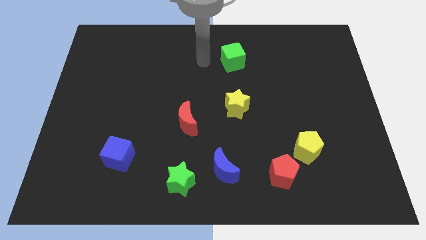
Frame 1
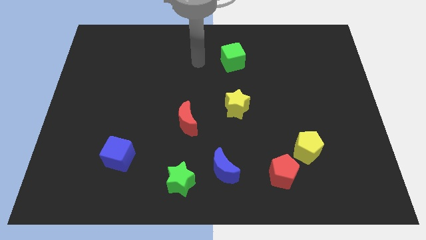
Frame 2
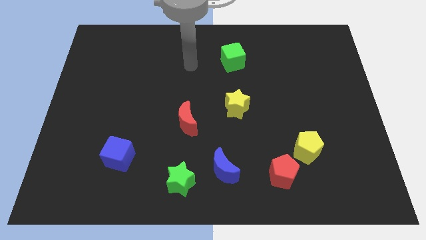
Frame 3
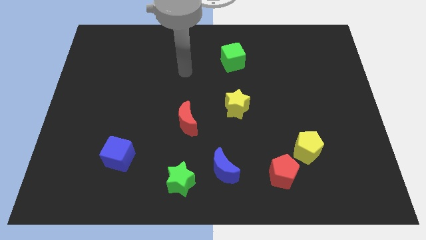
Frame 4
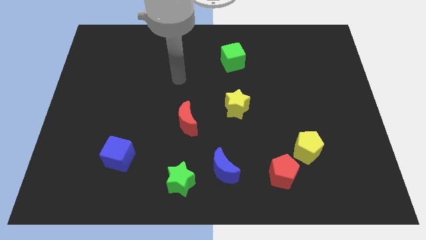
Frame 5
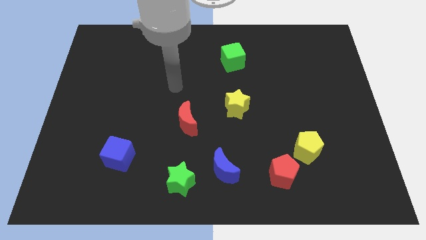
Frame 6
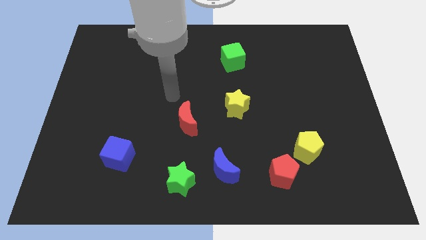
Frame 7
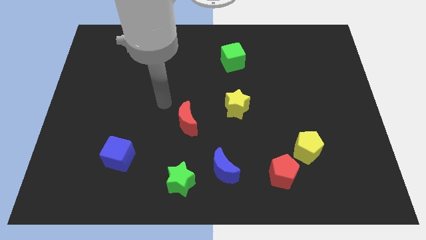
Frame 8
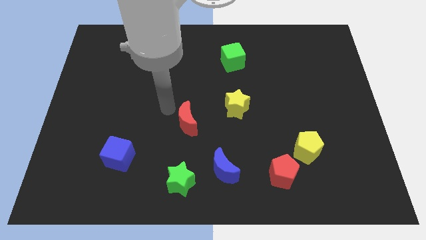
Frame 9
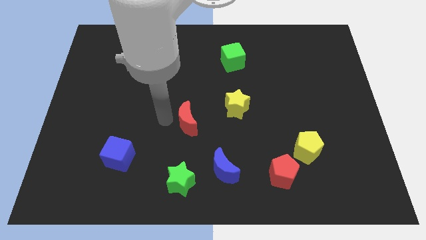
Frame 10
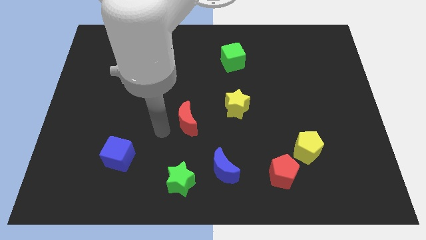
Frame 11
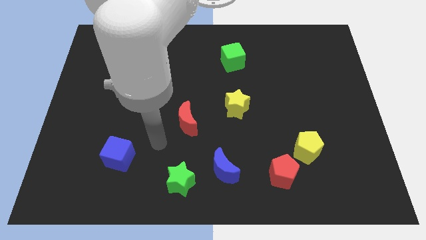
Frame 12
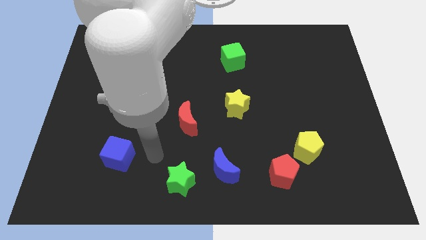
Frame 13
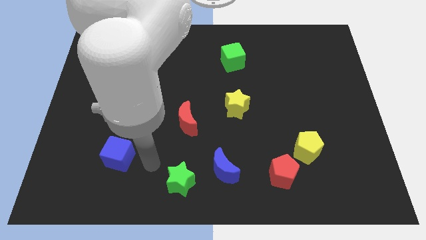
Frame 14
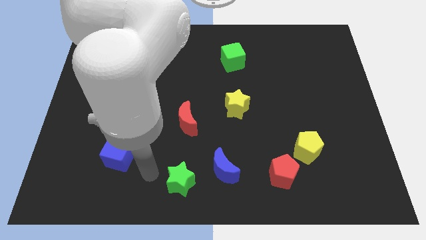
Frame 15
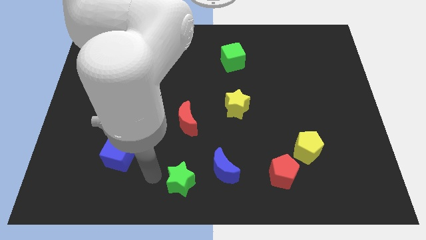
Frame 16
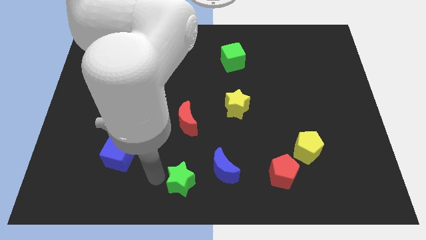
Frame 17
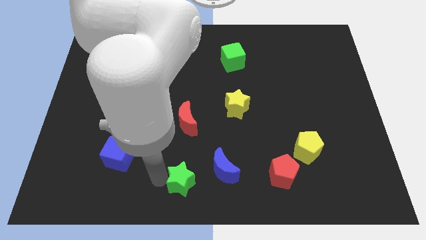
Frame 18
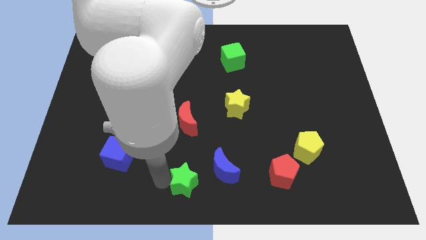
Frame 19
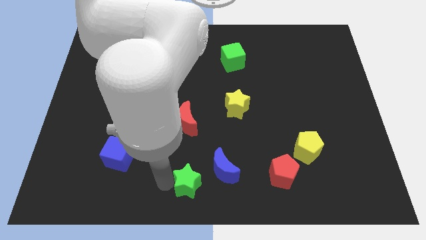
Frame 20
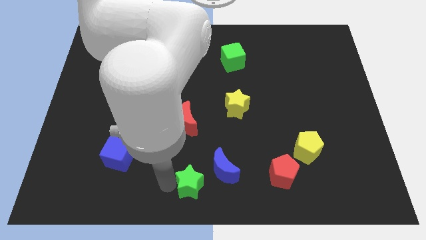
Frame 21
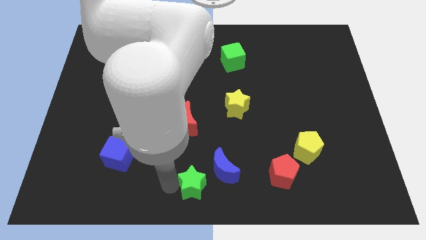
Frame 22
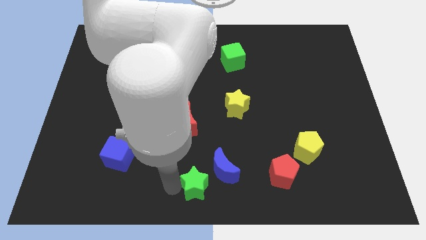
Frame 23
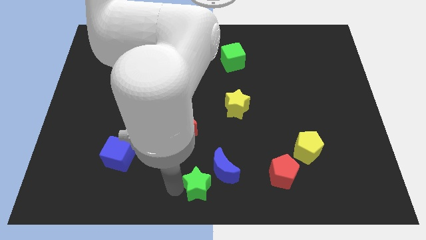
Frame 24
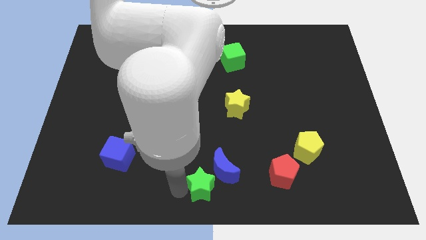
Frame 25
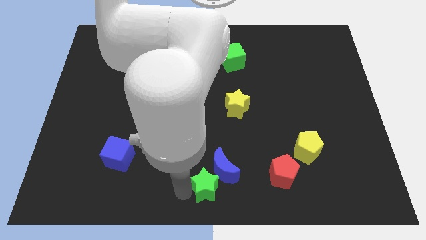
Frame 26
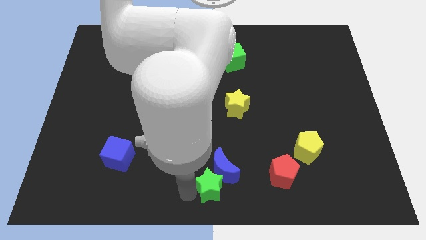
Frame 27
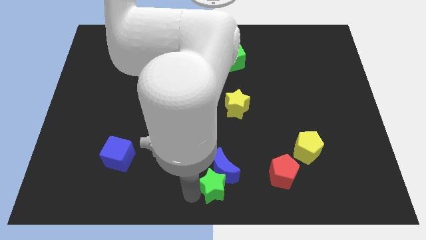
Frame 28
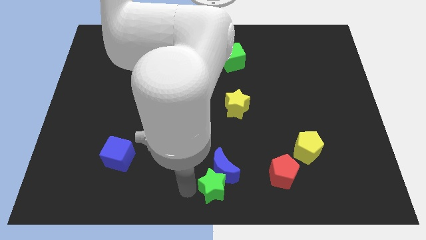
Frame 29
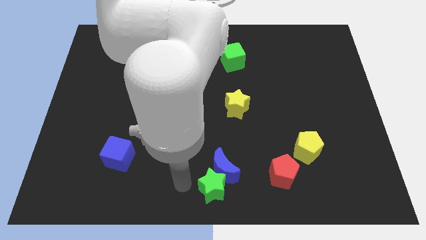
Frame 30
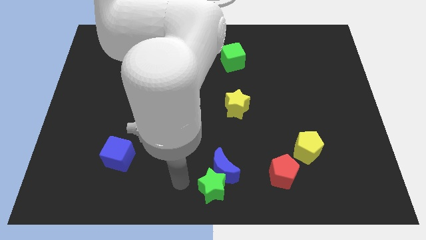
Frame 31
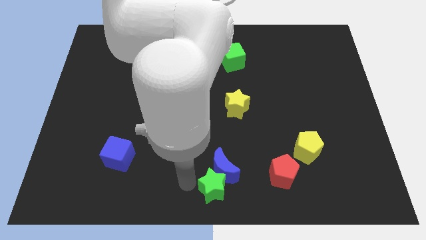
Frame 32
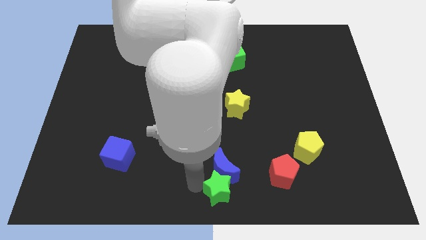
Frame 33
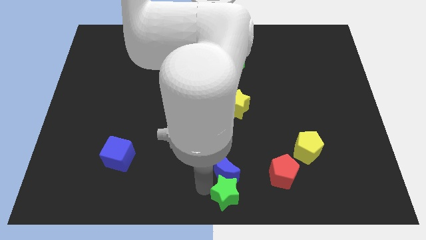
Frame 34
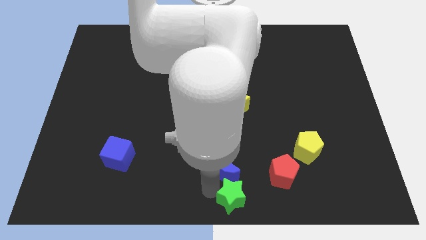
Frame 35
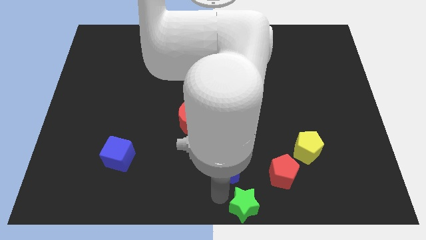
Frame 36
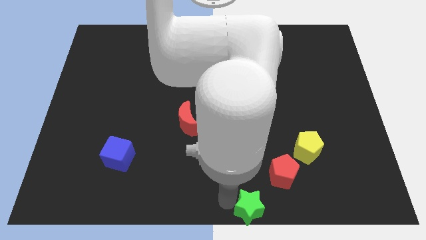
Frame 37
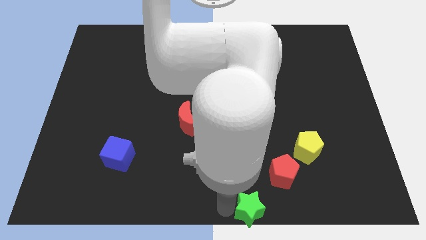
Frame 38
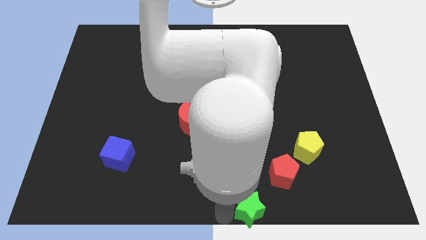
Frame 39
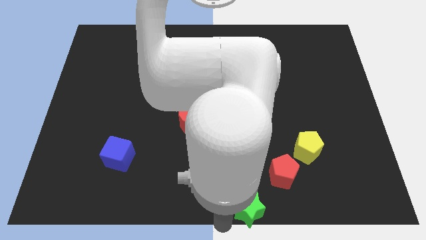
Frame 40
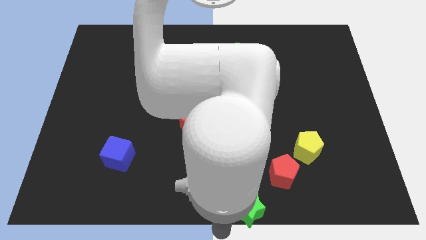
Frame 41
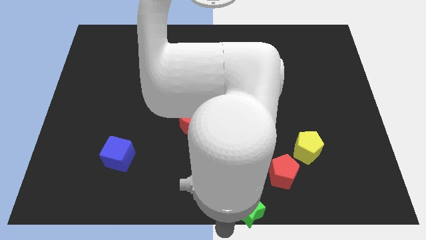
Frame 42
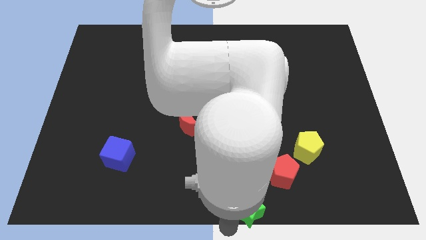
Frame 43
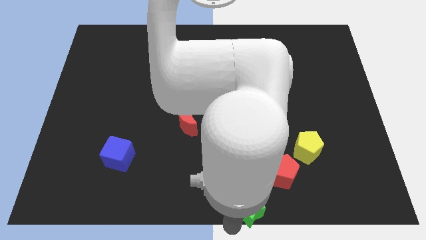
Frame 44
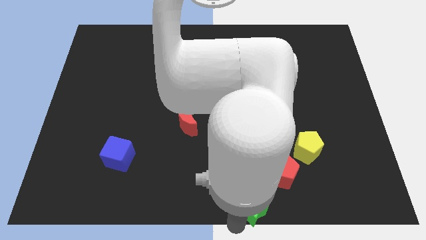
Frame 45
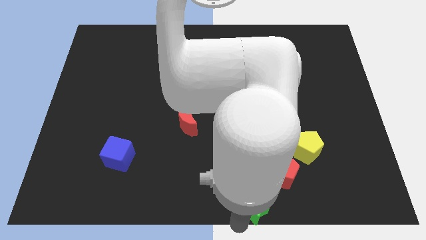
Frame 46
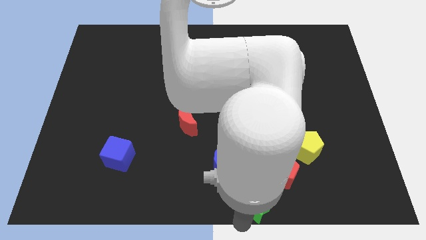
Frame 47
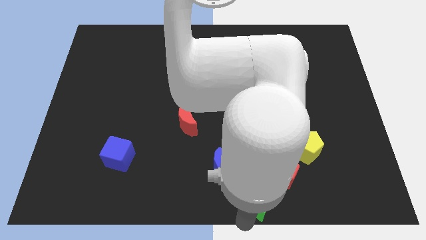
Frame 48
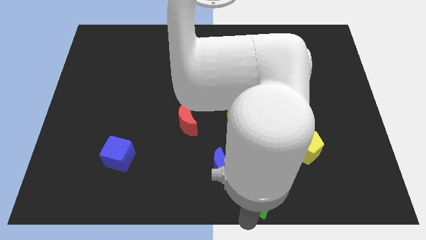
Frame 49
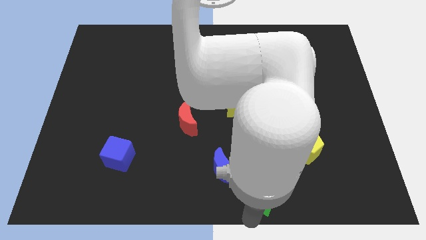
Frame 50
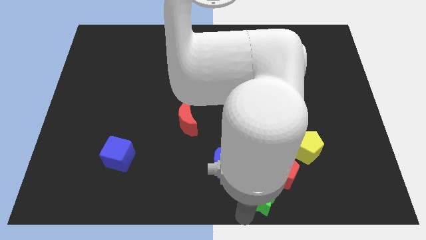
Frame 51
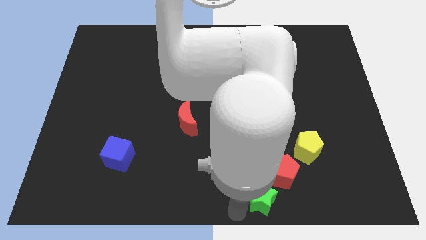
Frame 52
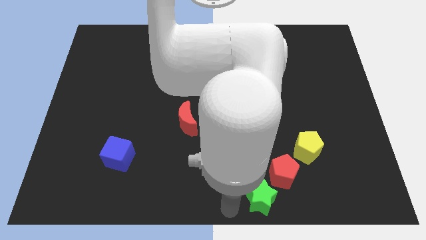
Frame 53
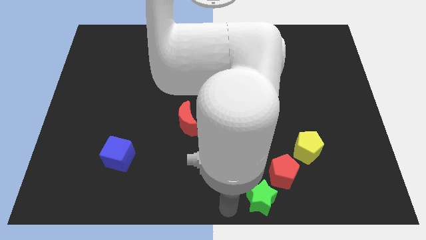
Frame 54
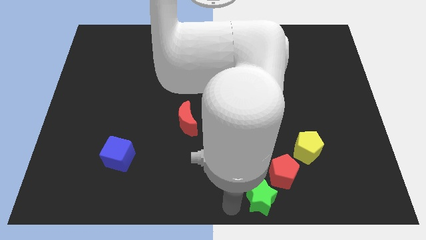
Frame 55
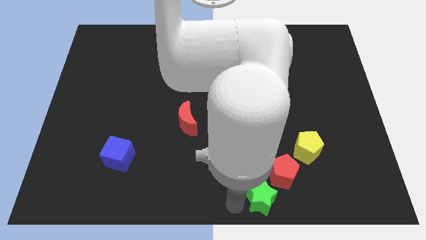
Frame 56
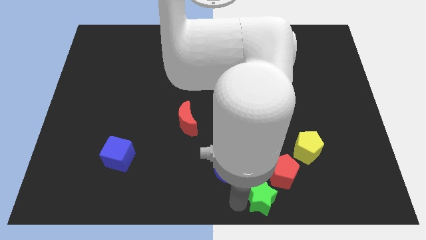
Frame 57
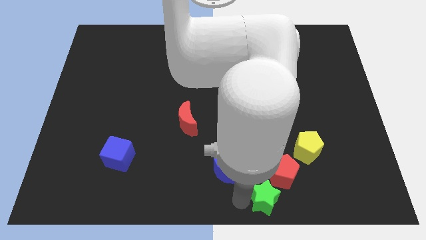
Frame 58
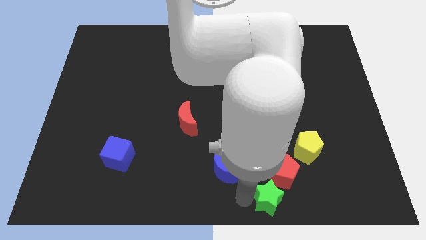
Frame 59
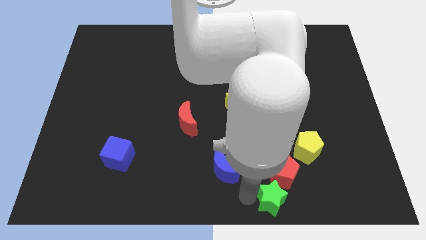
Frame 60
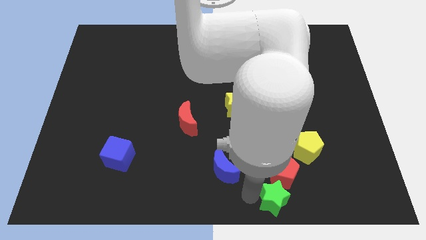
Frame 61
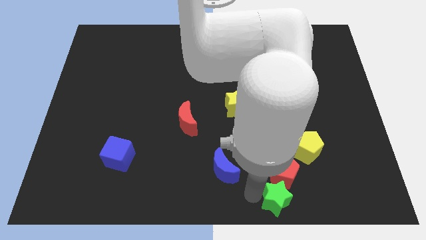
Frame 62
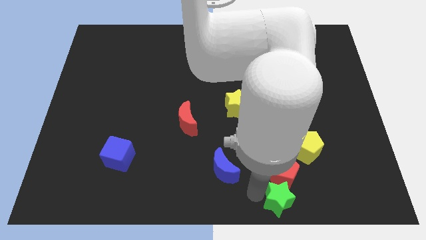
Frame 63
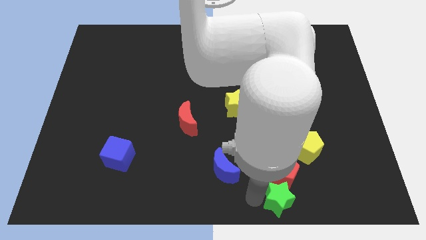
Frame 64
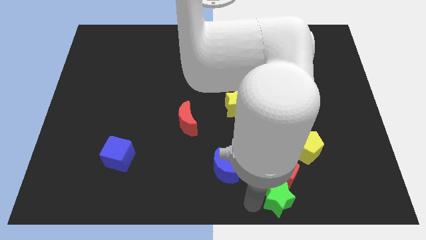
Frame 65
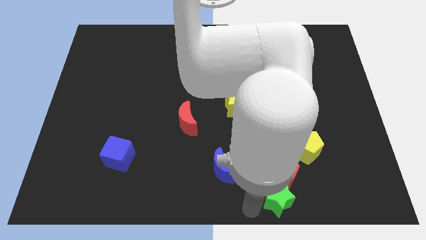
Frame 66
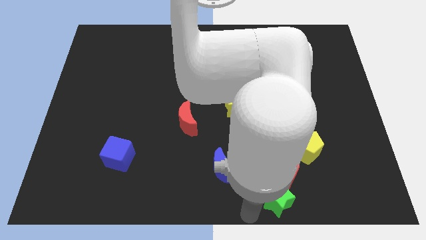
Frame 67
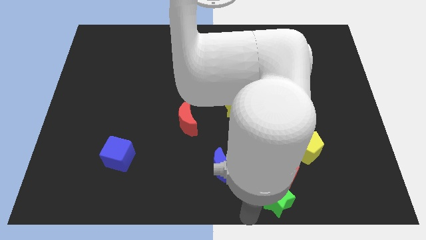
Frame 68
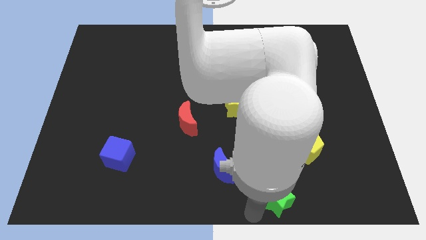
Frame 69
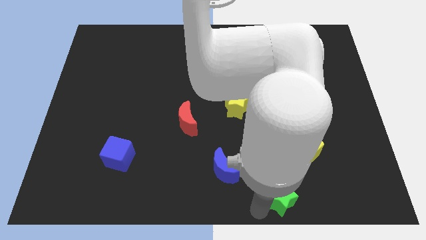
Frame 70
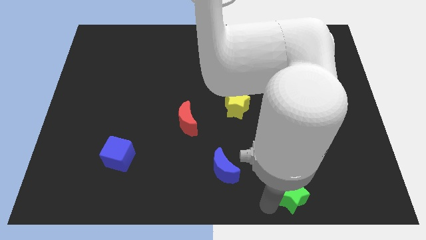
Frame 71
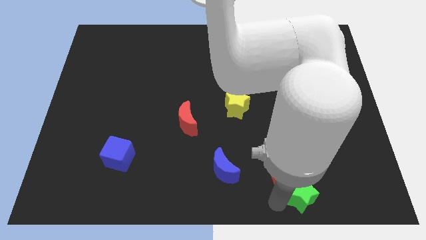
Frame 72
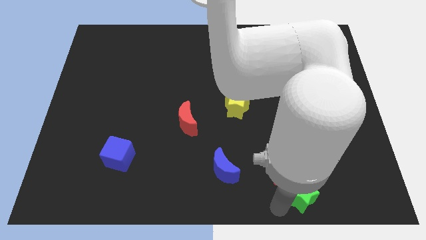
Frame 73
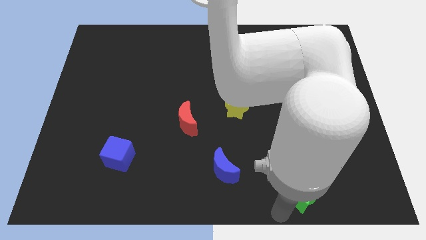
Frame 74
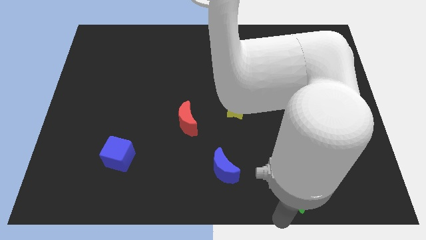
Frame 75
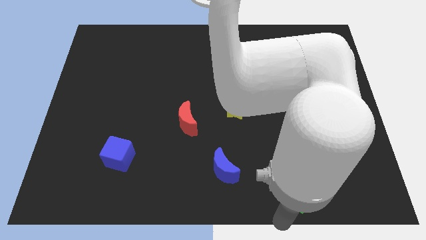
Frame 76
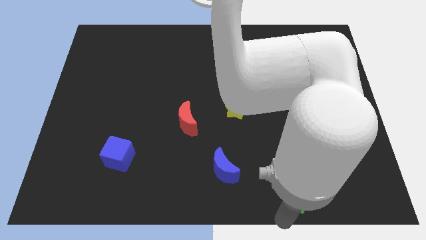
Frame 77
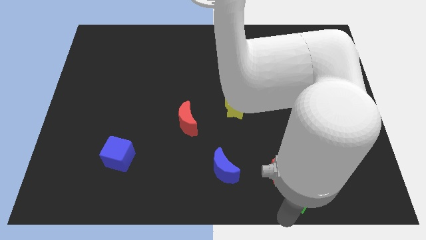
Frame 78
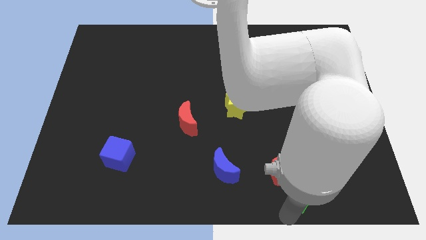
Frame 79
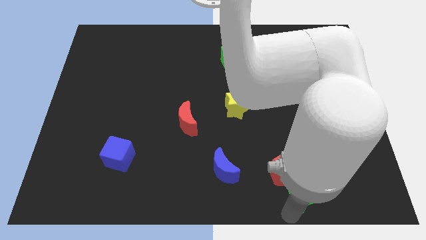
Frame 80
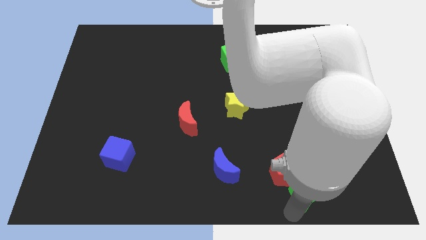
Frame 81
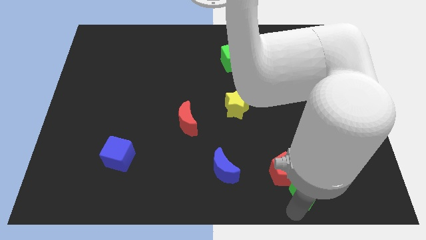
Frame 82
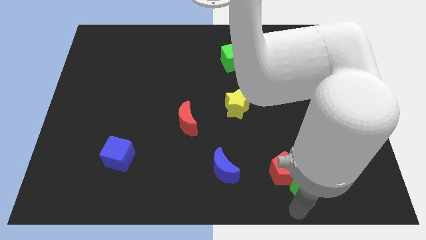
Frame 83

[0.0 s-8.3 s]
push the green star just right of the red pentagon
